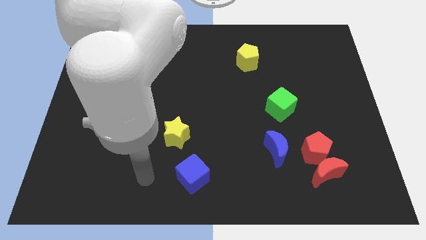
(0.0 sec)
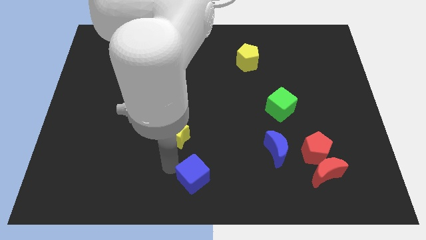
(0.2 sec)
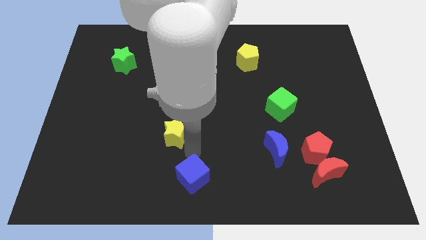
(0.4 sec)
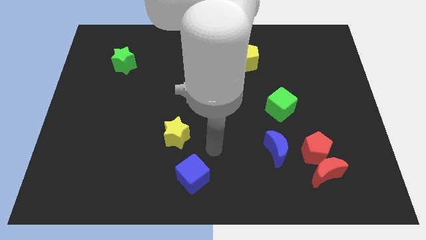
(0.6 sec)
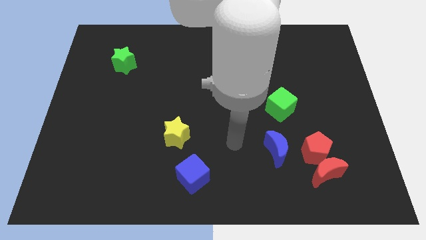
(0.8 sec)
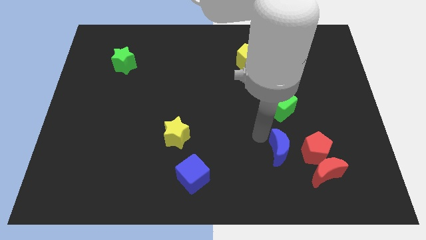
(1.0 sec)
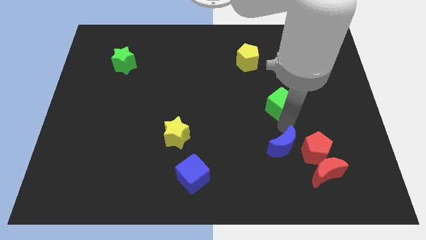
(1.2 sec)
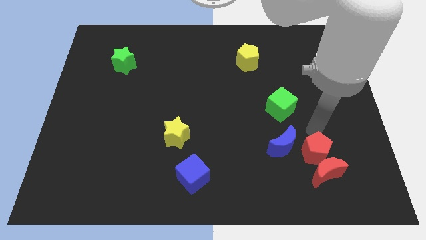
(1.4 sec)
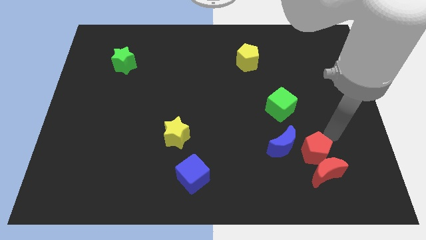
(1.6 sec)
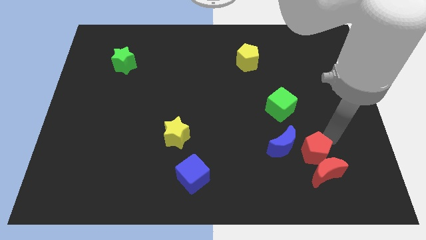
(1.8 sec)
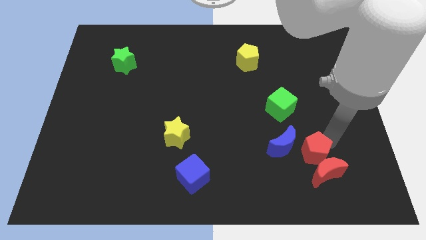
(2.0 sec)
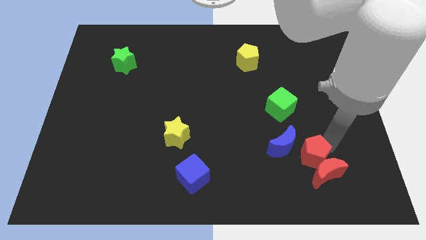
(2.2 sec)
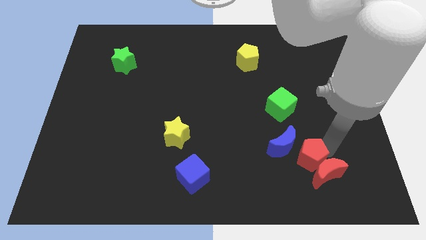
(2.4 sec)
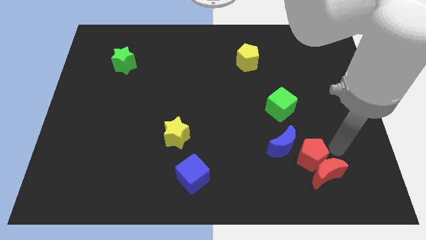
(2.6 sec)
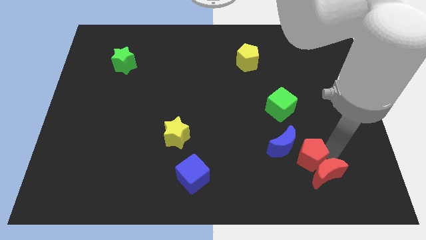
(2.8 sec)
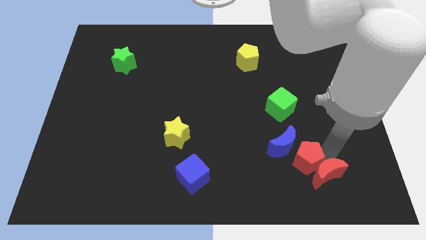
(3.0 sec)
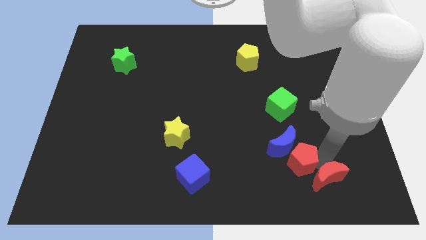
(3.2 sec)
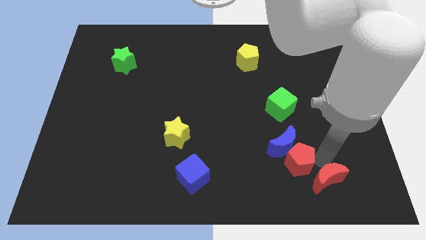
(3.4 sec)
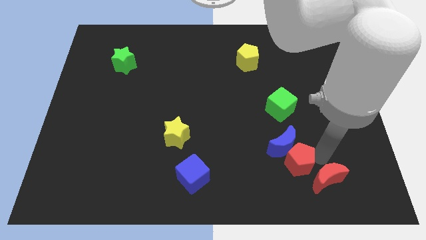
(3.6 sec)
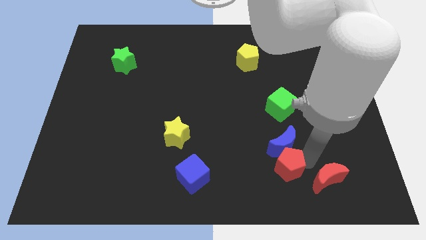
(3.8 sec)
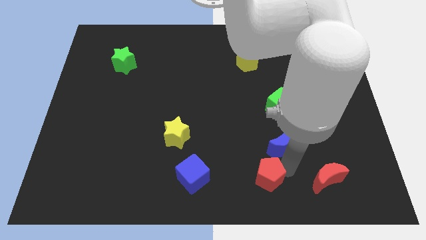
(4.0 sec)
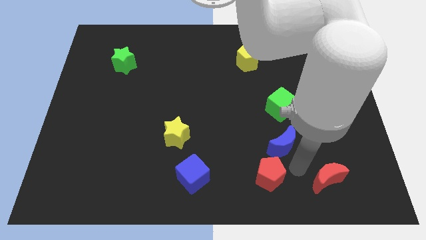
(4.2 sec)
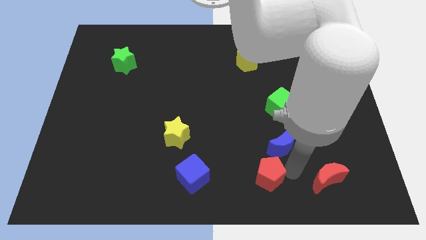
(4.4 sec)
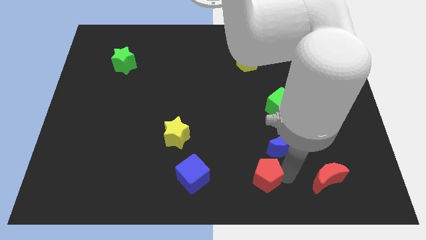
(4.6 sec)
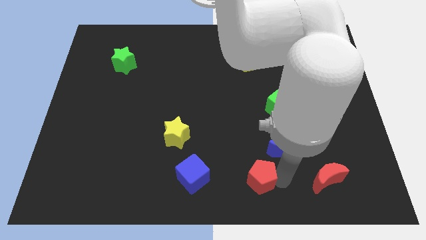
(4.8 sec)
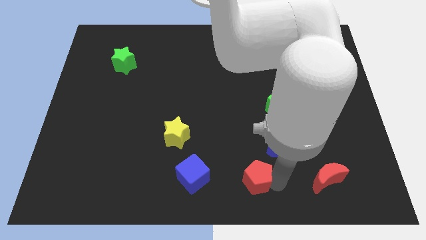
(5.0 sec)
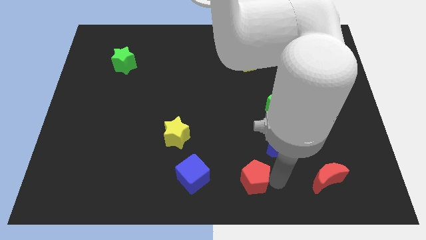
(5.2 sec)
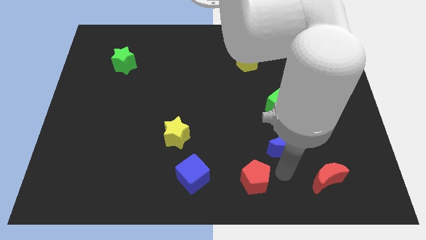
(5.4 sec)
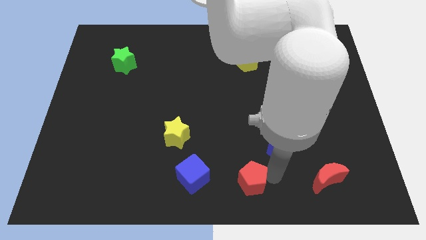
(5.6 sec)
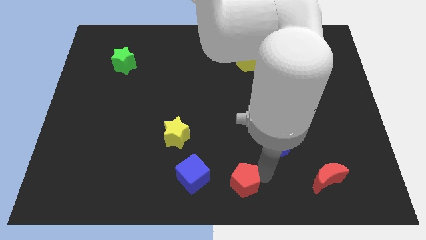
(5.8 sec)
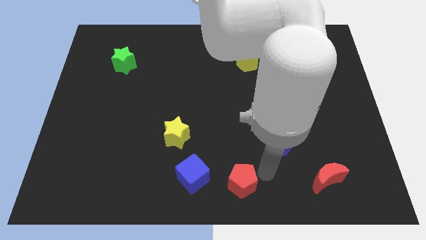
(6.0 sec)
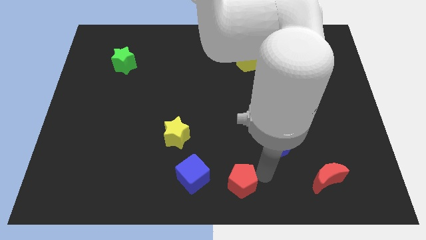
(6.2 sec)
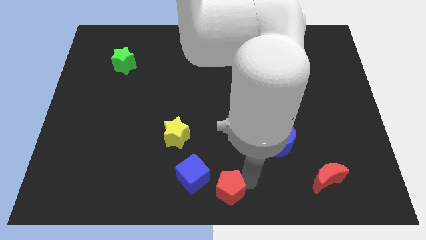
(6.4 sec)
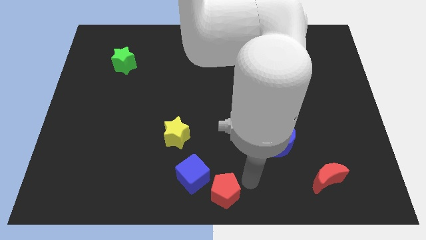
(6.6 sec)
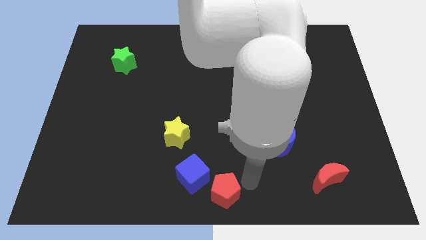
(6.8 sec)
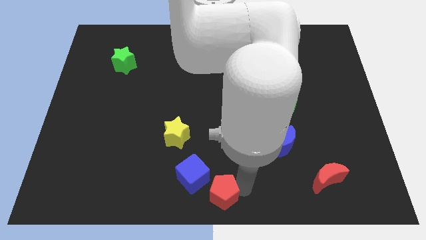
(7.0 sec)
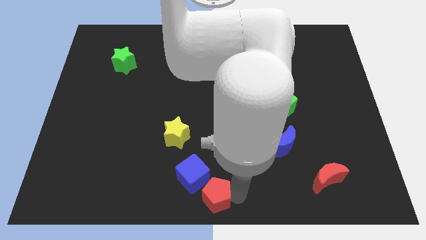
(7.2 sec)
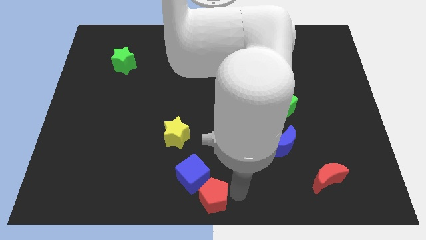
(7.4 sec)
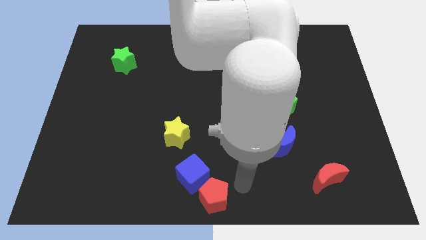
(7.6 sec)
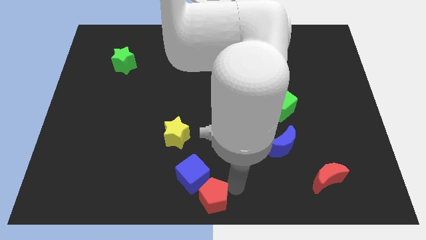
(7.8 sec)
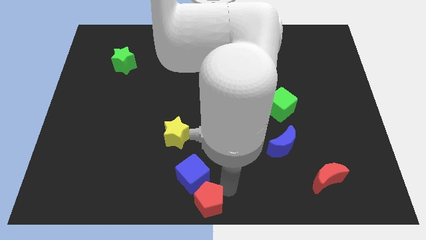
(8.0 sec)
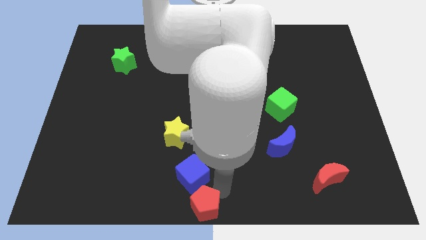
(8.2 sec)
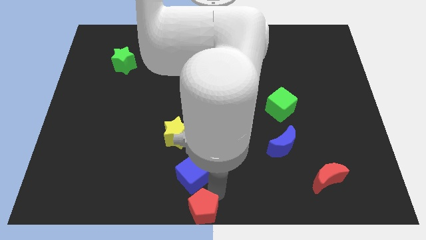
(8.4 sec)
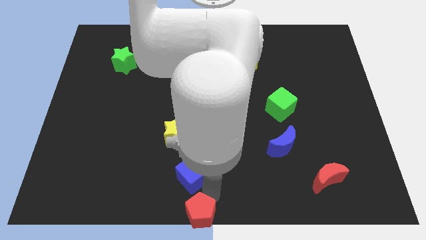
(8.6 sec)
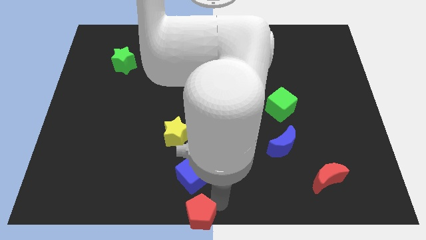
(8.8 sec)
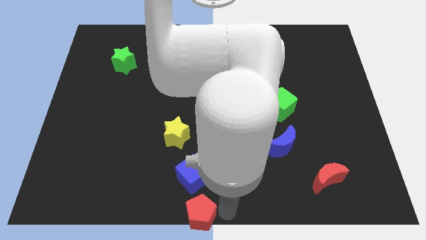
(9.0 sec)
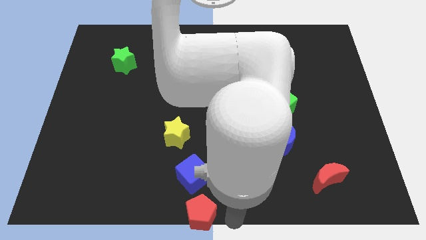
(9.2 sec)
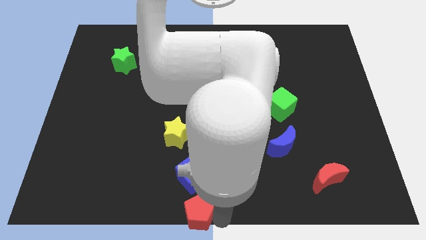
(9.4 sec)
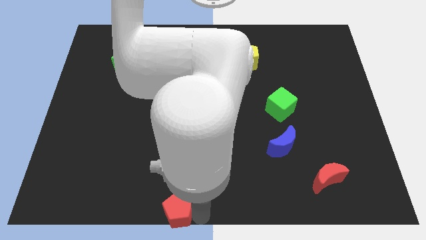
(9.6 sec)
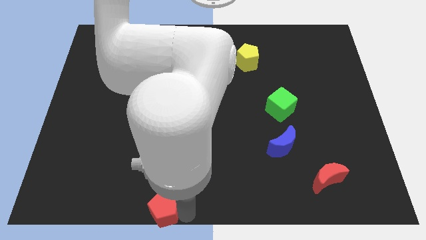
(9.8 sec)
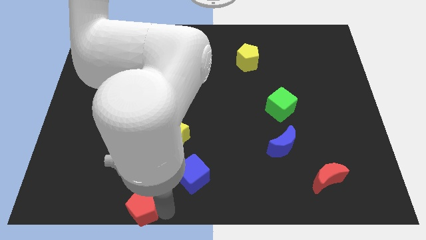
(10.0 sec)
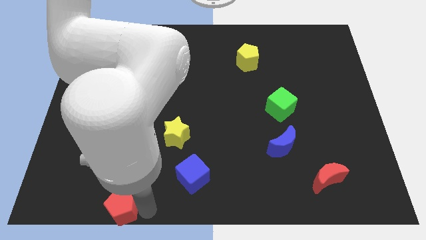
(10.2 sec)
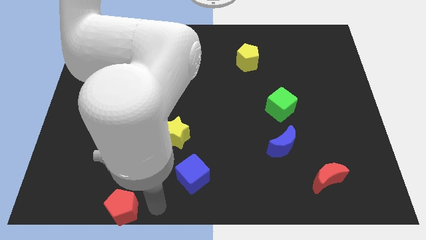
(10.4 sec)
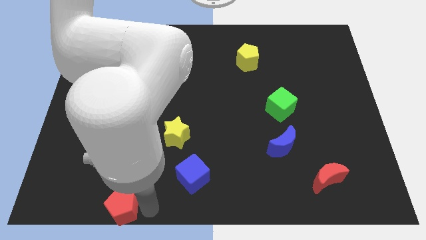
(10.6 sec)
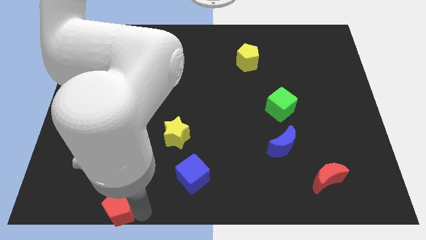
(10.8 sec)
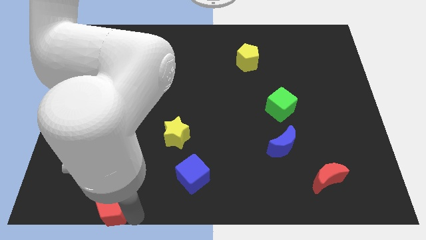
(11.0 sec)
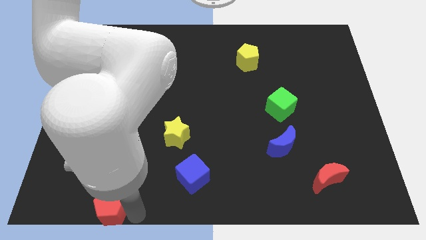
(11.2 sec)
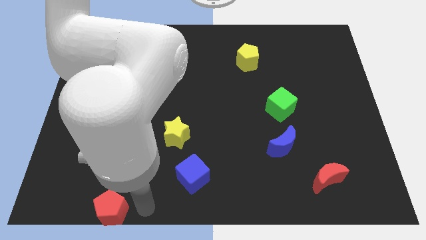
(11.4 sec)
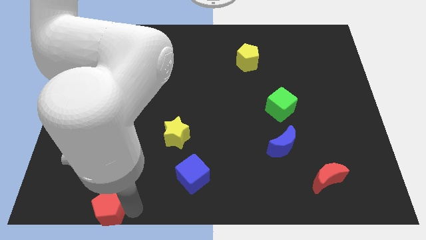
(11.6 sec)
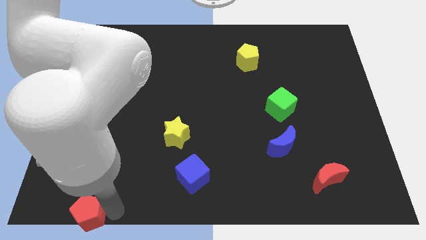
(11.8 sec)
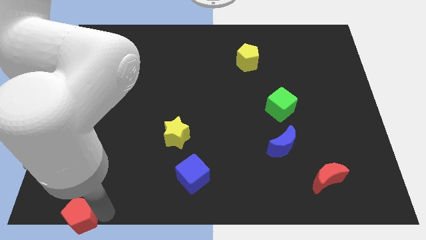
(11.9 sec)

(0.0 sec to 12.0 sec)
move the red pentagon to the bottom left corner
